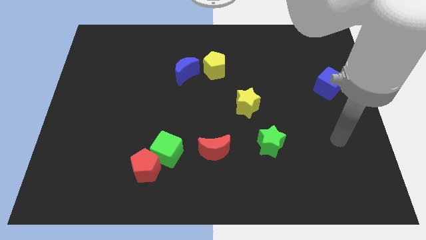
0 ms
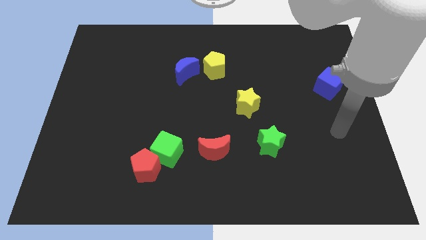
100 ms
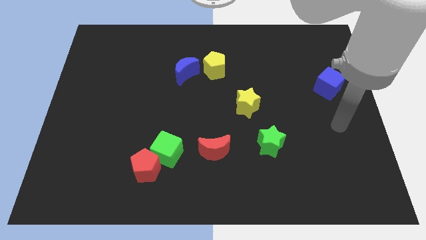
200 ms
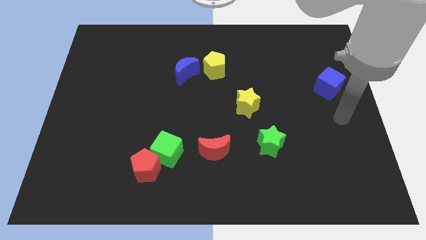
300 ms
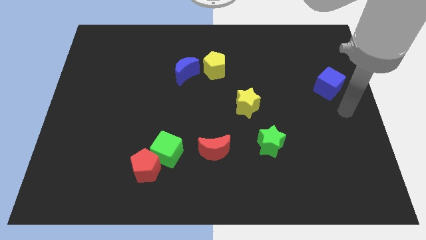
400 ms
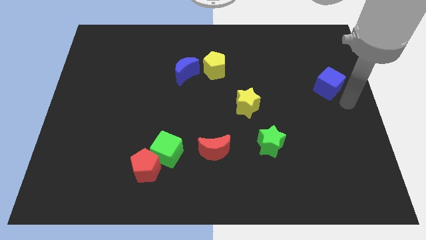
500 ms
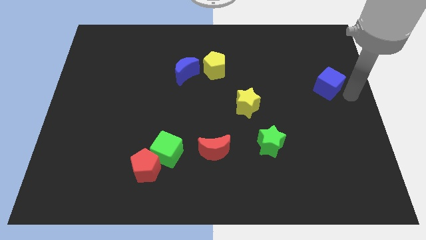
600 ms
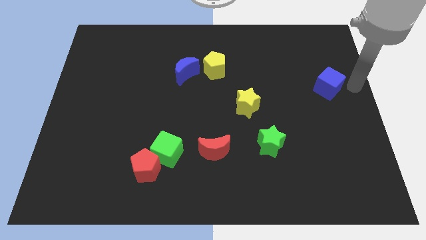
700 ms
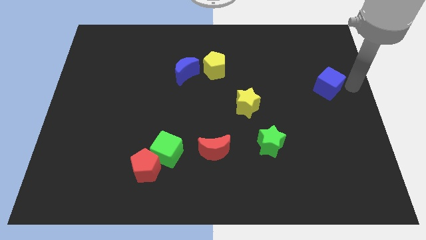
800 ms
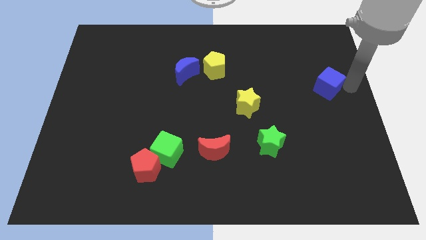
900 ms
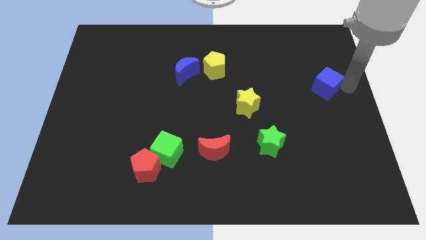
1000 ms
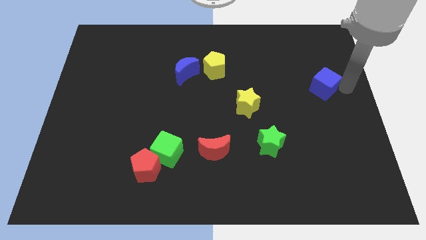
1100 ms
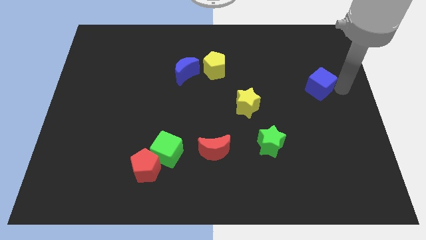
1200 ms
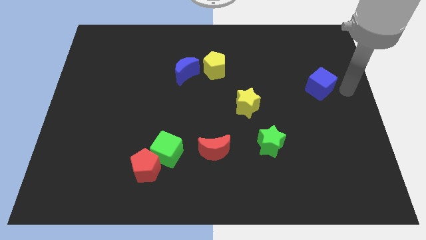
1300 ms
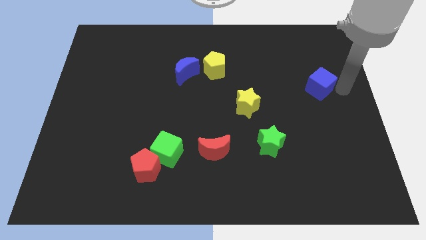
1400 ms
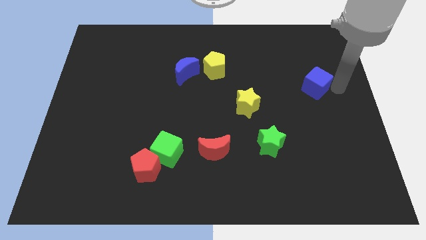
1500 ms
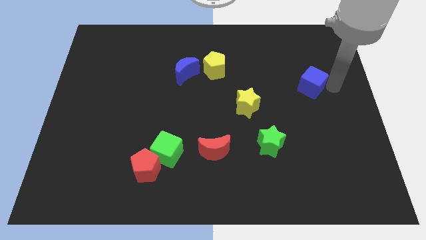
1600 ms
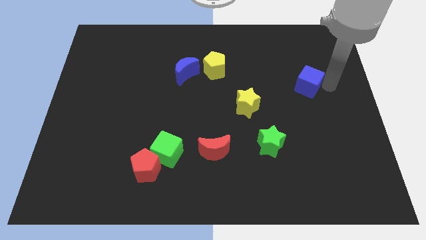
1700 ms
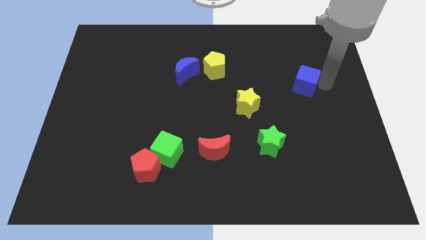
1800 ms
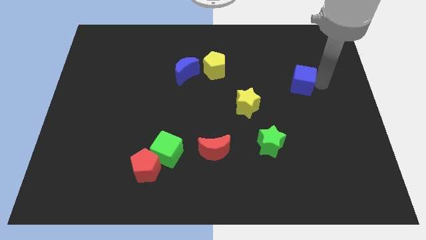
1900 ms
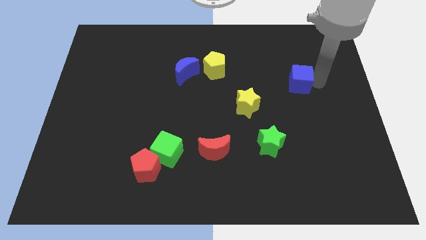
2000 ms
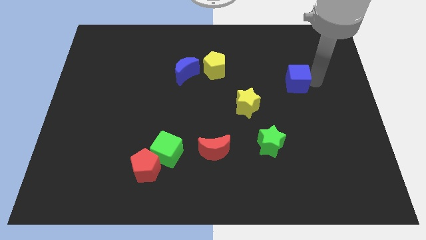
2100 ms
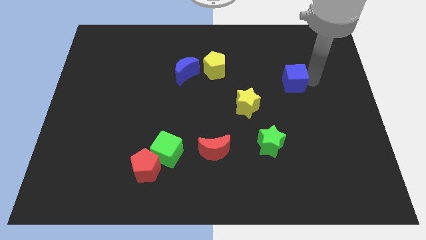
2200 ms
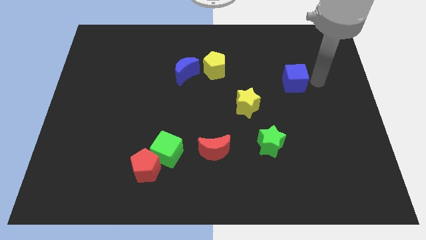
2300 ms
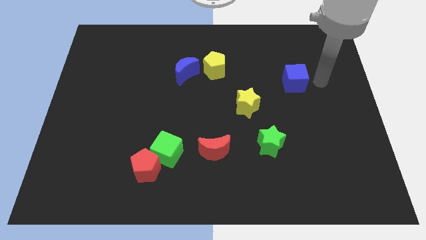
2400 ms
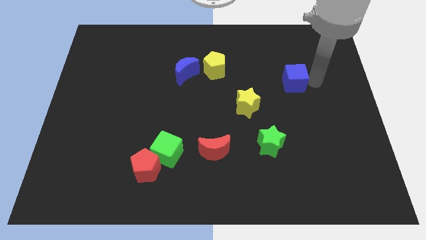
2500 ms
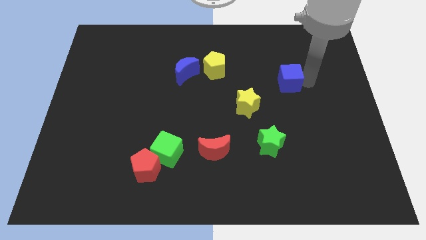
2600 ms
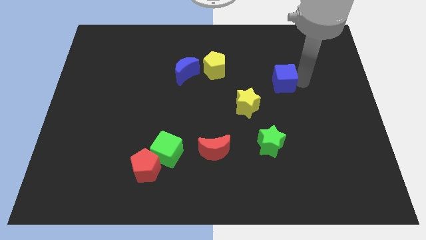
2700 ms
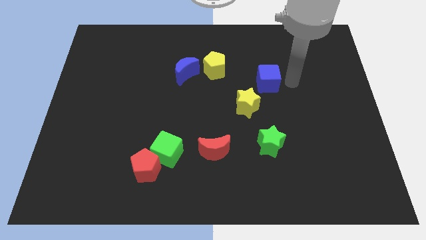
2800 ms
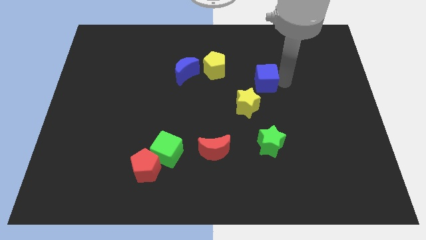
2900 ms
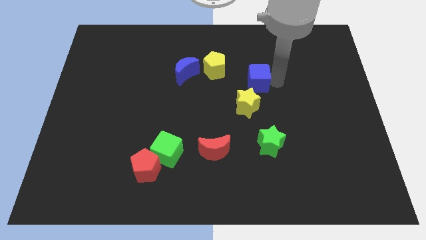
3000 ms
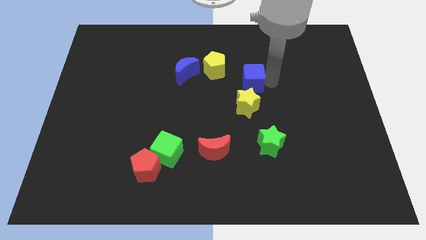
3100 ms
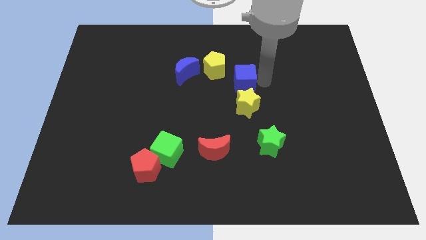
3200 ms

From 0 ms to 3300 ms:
slide the blue cube to the left

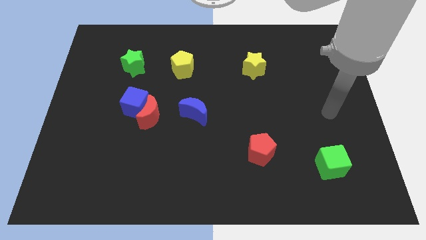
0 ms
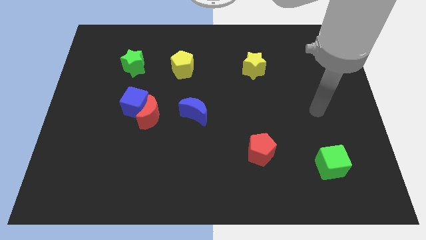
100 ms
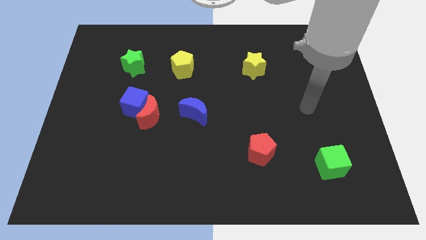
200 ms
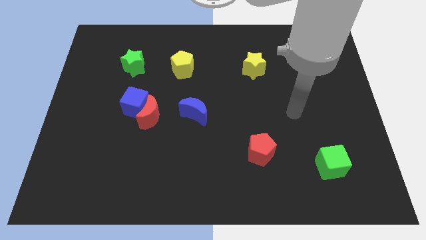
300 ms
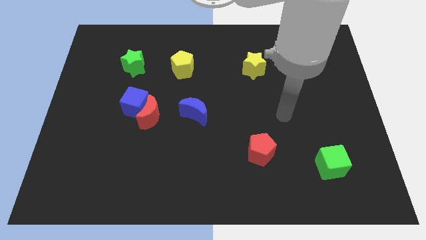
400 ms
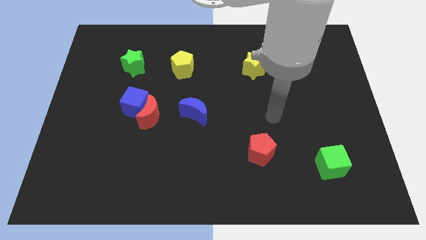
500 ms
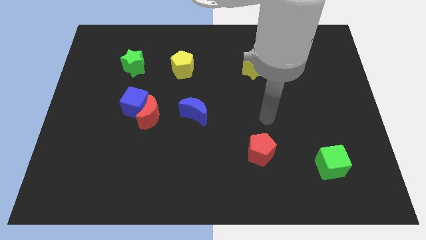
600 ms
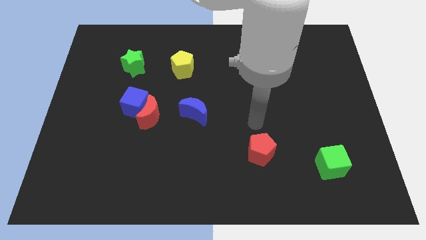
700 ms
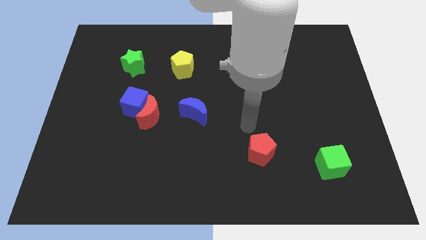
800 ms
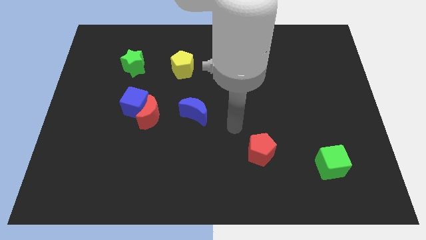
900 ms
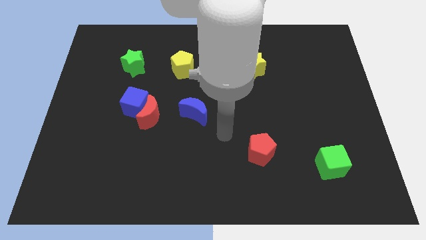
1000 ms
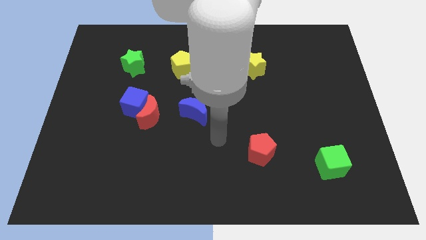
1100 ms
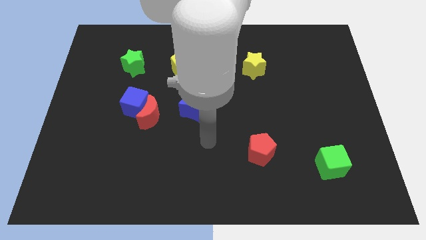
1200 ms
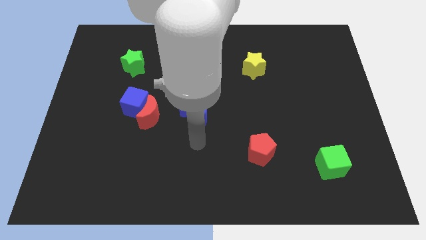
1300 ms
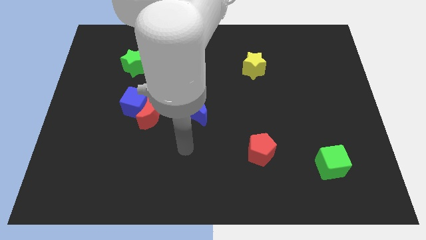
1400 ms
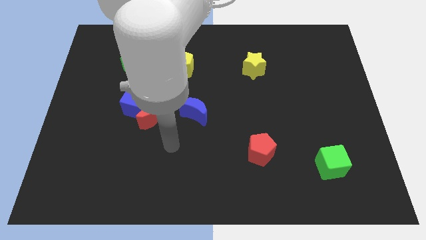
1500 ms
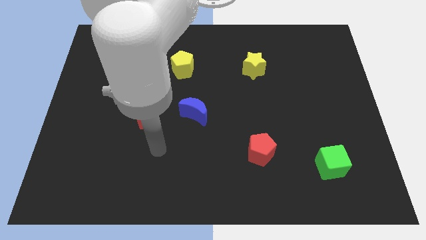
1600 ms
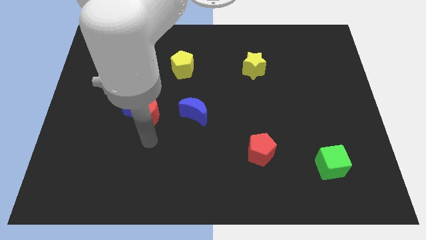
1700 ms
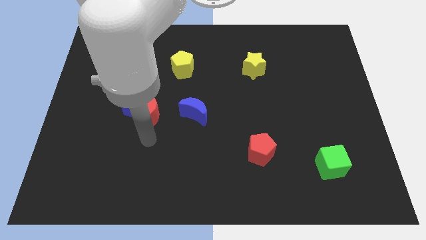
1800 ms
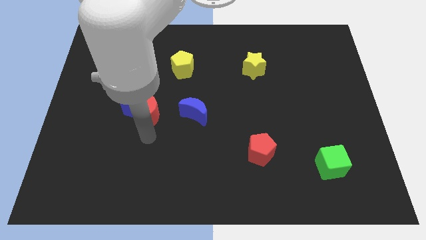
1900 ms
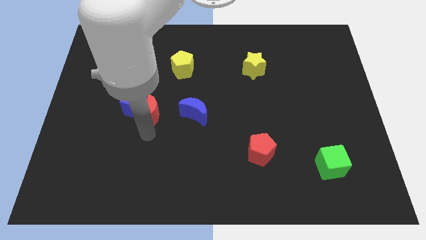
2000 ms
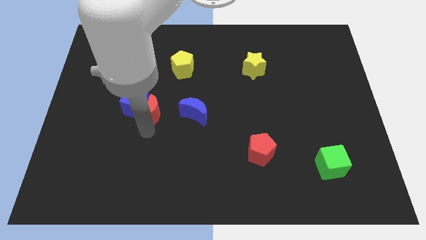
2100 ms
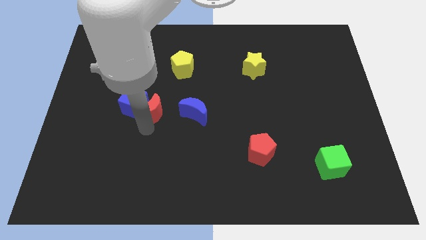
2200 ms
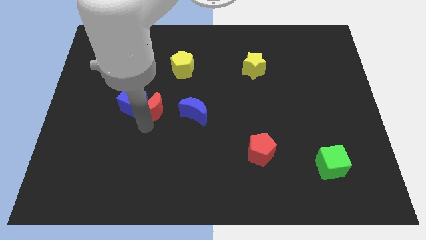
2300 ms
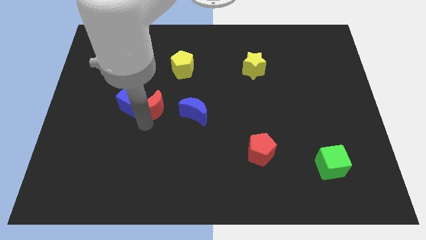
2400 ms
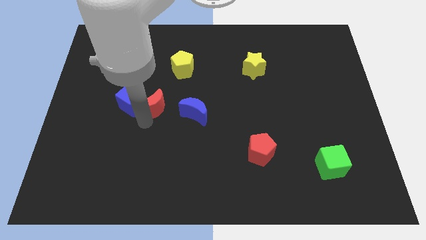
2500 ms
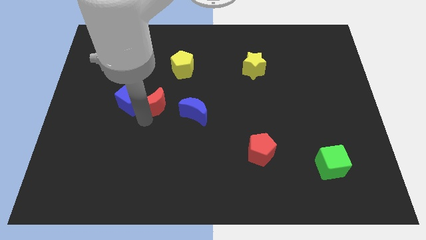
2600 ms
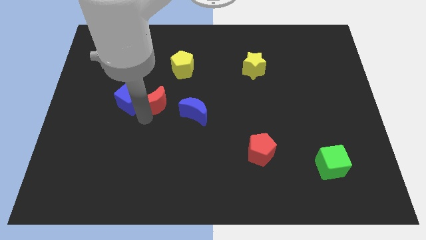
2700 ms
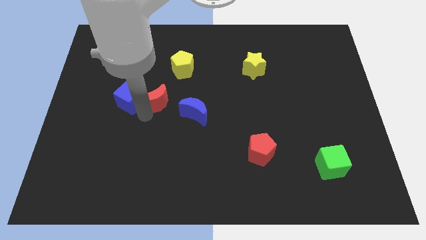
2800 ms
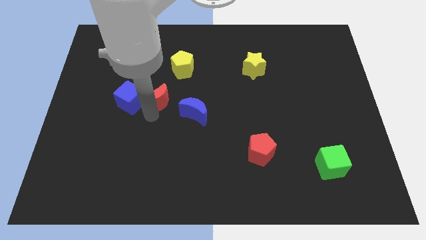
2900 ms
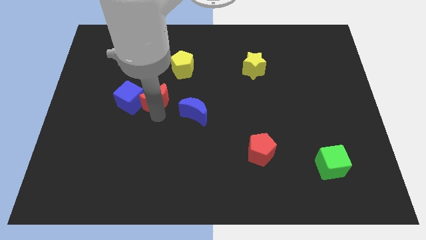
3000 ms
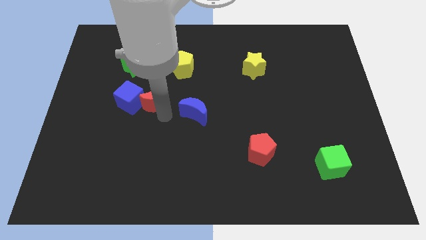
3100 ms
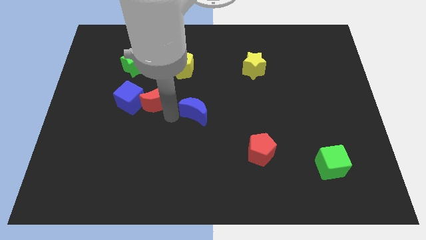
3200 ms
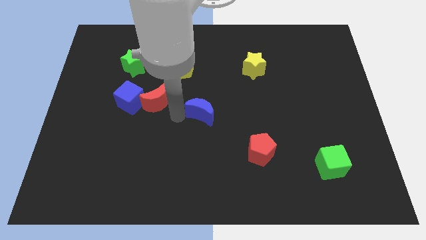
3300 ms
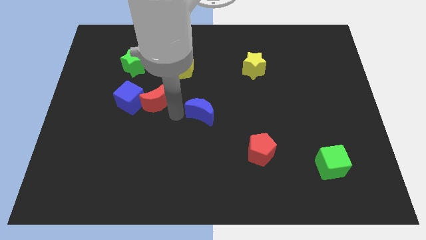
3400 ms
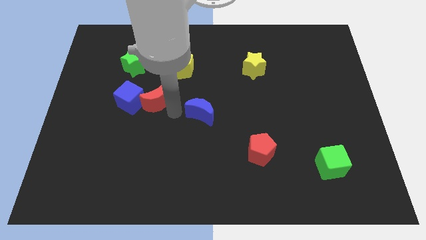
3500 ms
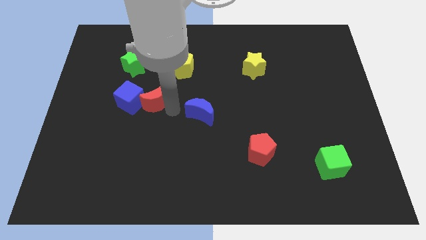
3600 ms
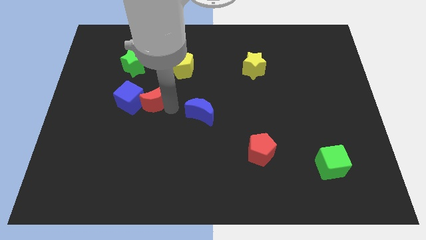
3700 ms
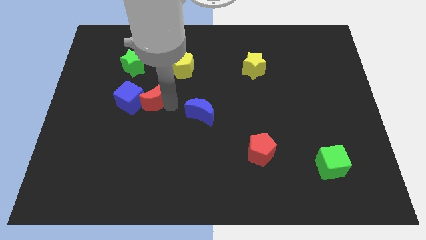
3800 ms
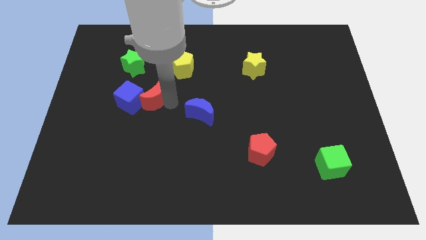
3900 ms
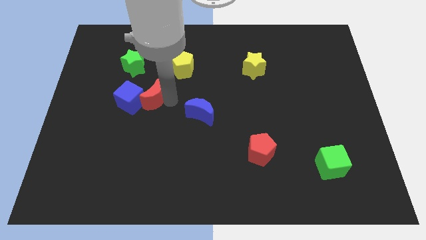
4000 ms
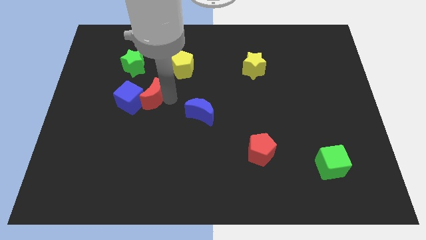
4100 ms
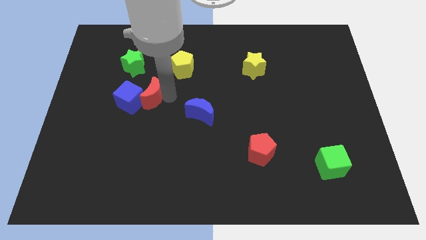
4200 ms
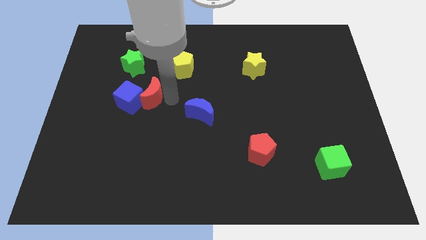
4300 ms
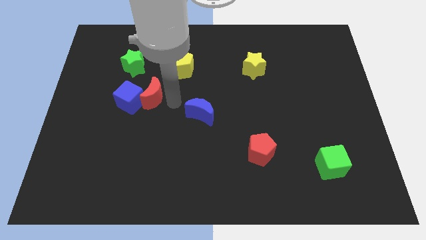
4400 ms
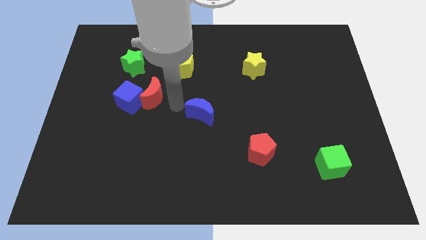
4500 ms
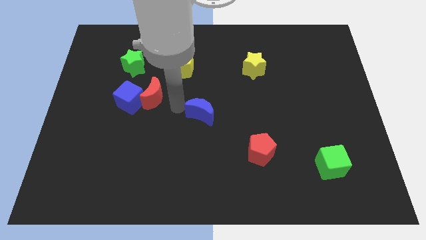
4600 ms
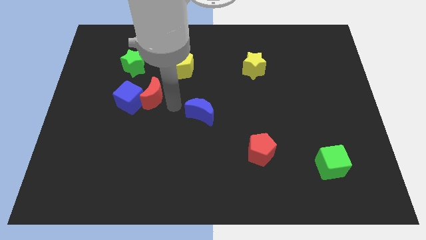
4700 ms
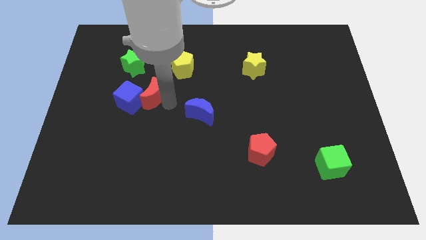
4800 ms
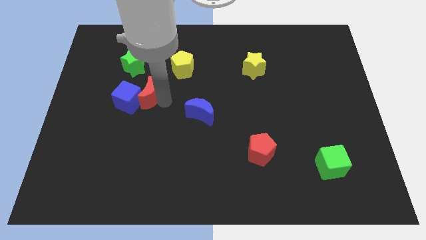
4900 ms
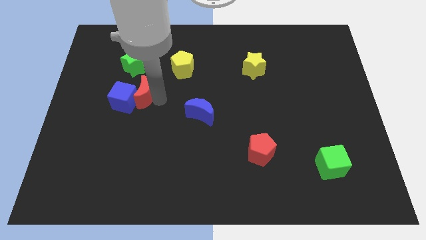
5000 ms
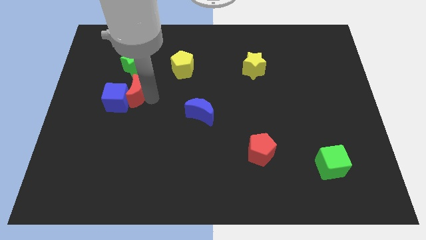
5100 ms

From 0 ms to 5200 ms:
move the red moon somewhat up and left diagonally
